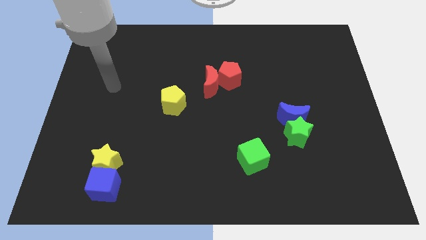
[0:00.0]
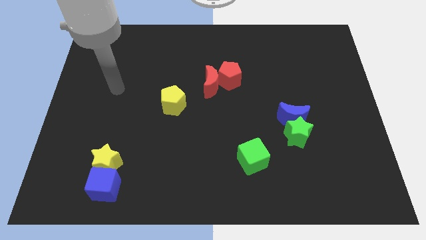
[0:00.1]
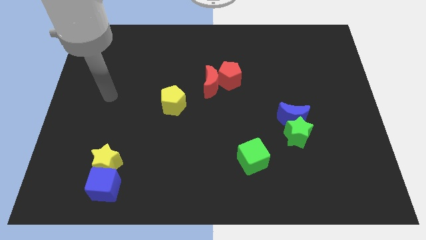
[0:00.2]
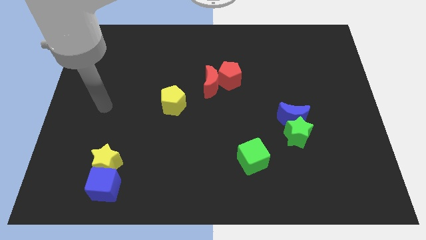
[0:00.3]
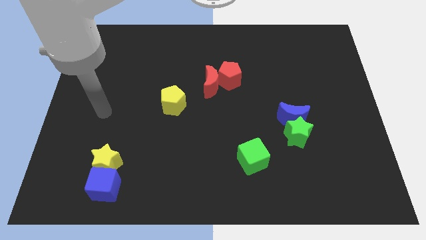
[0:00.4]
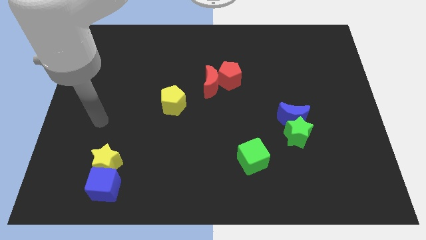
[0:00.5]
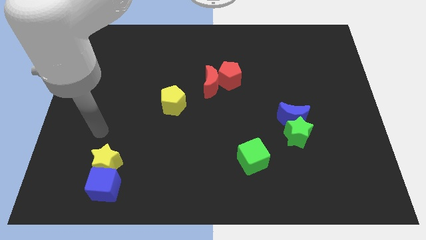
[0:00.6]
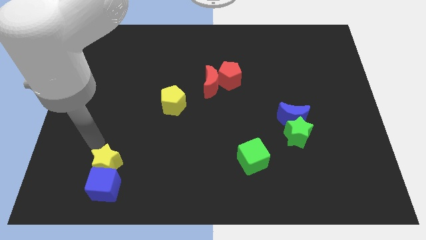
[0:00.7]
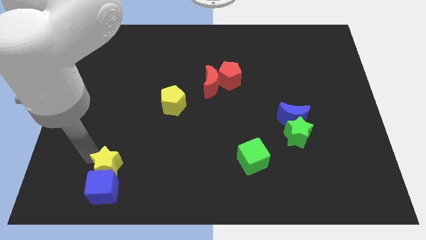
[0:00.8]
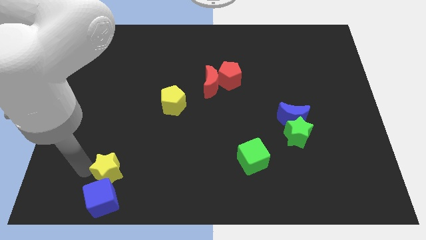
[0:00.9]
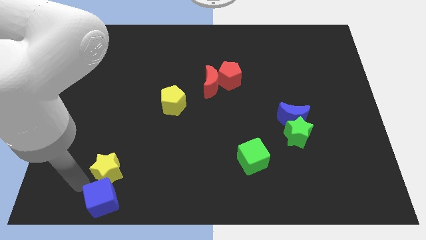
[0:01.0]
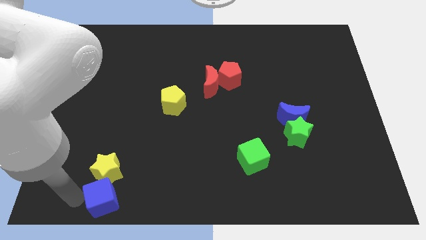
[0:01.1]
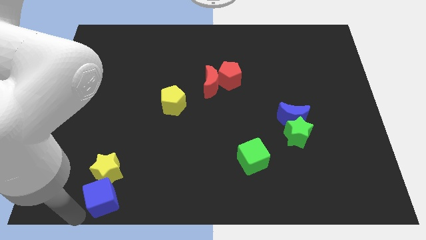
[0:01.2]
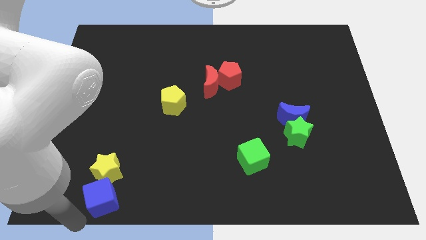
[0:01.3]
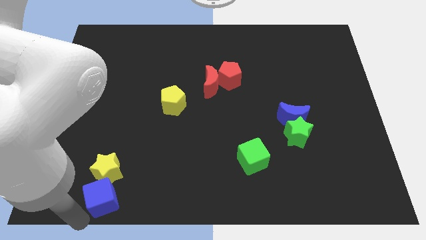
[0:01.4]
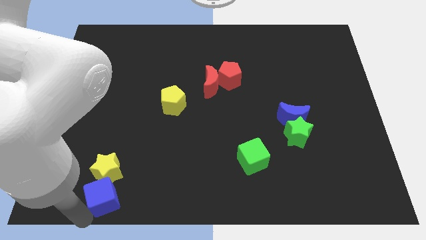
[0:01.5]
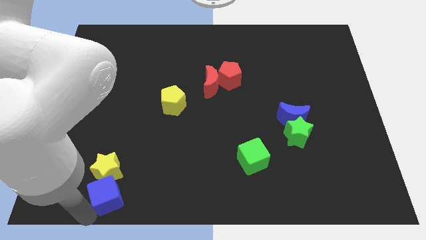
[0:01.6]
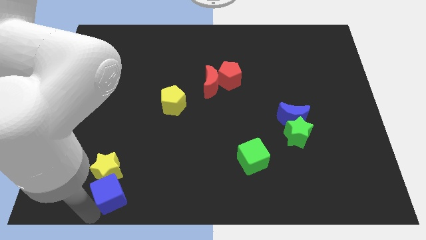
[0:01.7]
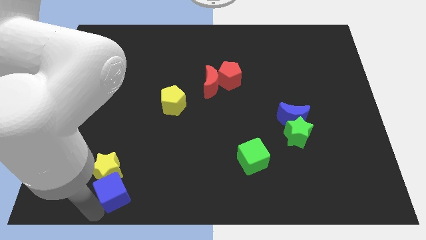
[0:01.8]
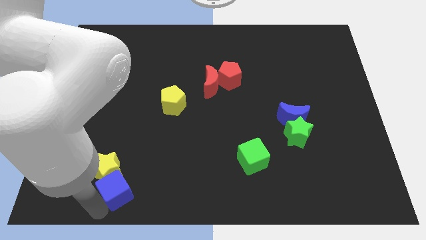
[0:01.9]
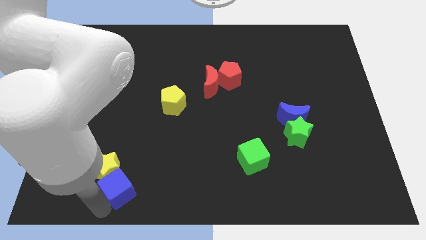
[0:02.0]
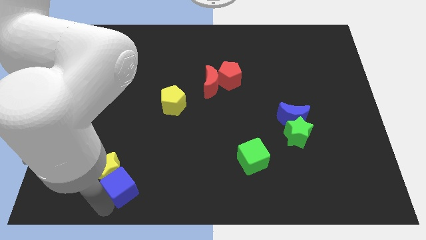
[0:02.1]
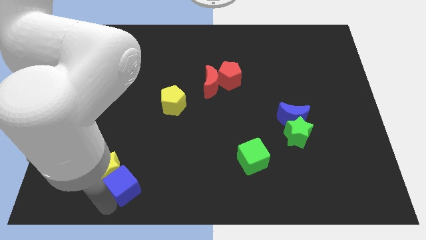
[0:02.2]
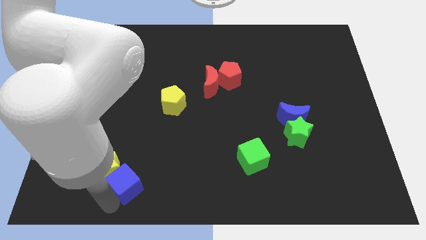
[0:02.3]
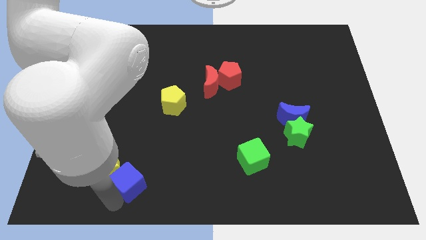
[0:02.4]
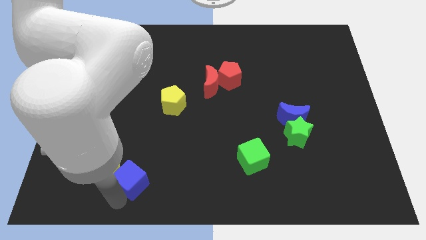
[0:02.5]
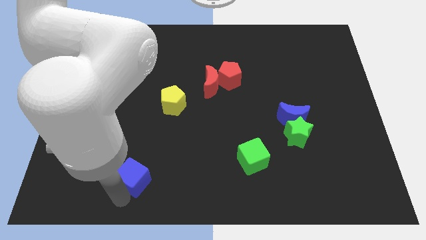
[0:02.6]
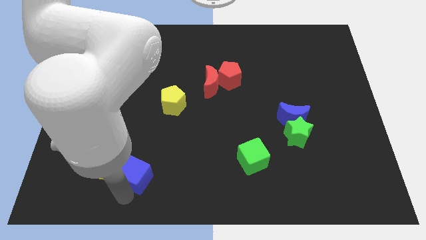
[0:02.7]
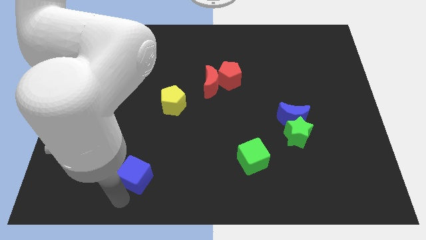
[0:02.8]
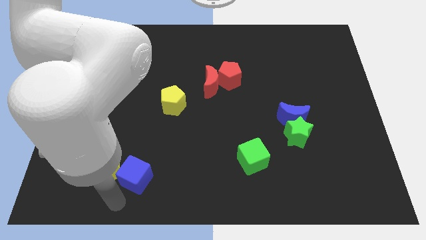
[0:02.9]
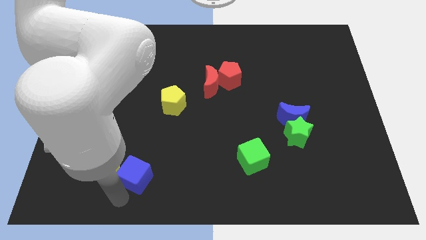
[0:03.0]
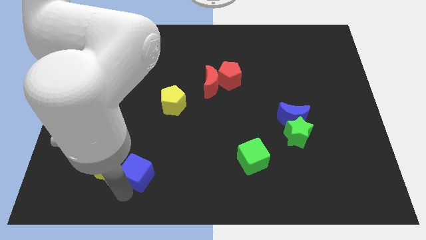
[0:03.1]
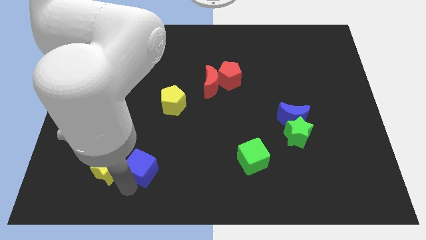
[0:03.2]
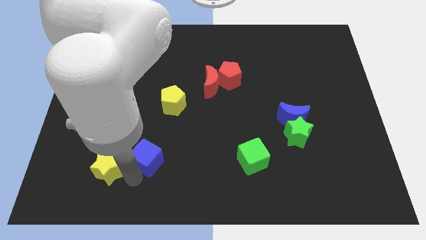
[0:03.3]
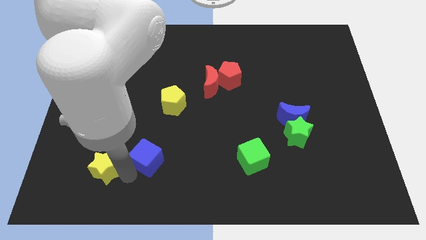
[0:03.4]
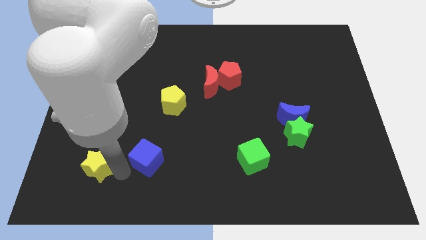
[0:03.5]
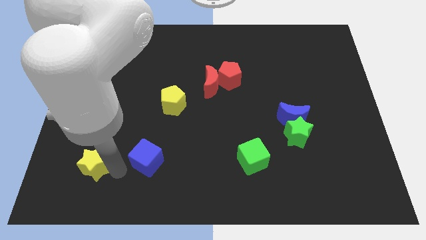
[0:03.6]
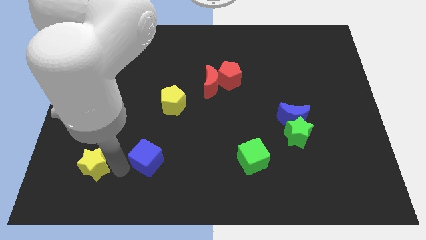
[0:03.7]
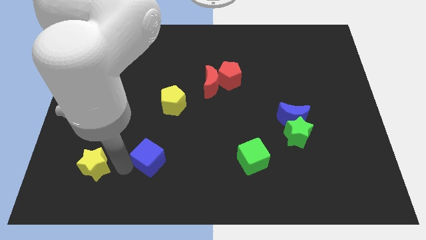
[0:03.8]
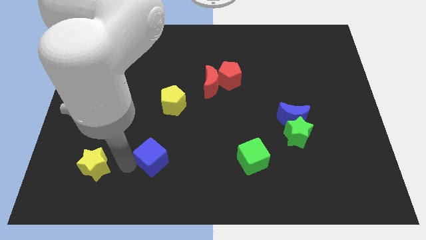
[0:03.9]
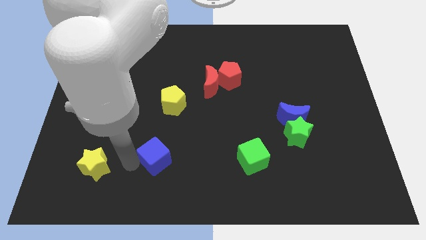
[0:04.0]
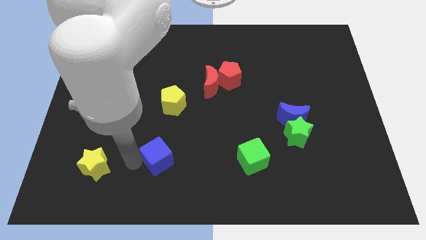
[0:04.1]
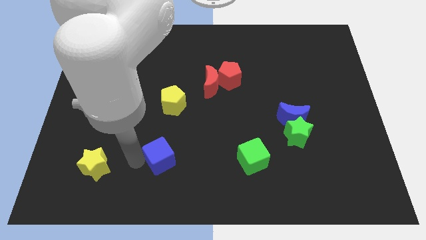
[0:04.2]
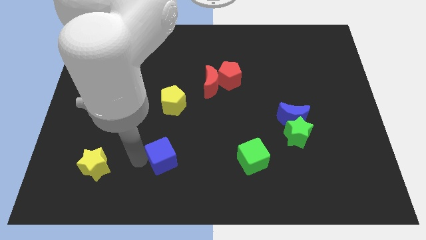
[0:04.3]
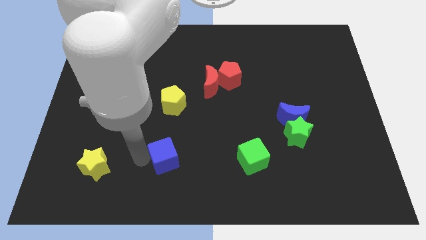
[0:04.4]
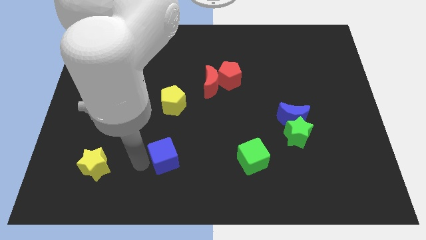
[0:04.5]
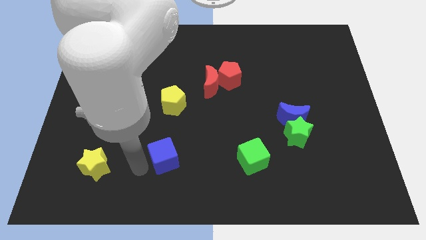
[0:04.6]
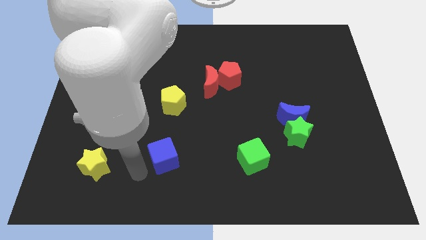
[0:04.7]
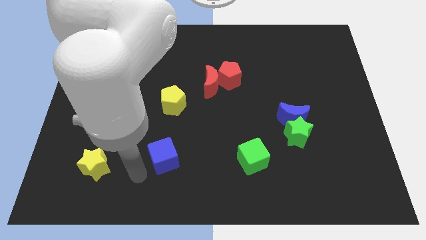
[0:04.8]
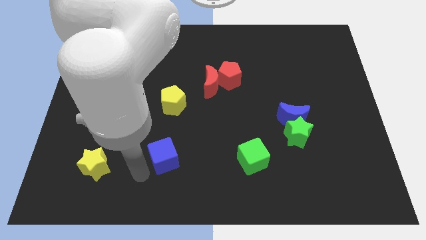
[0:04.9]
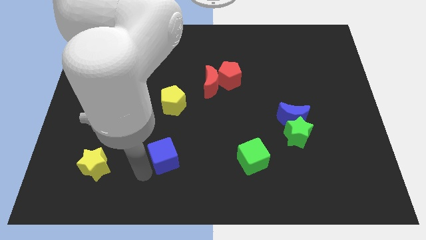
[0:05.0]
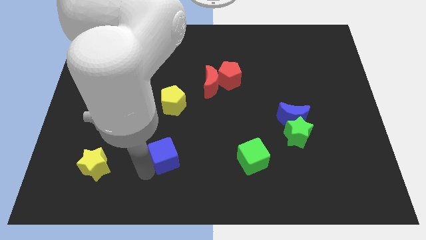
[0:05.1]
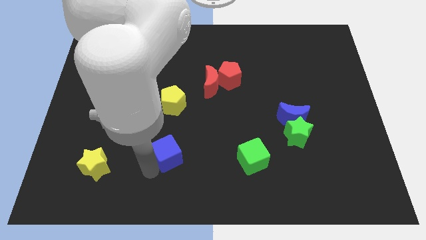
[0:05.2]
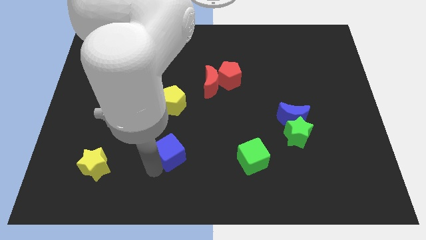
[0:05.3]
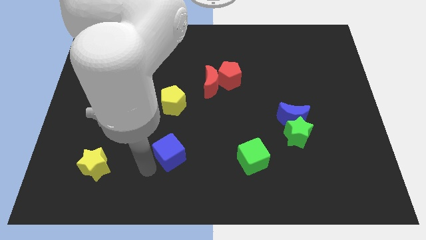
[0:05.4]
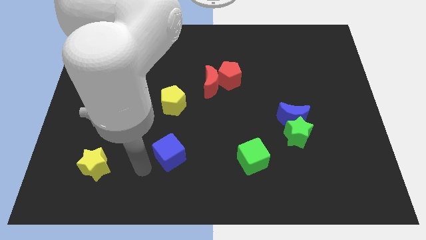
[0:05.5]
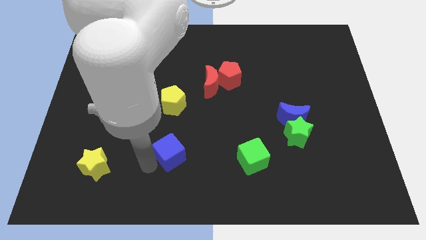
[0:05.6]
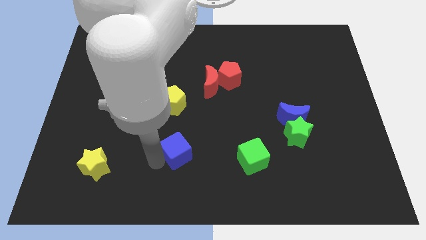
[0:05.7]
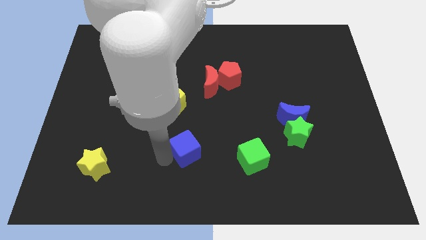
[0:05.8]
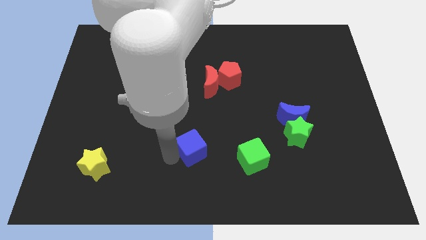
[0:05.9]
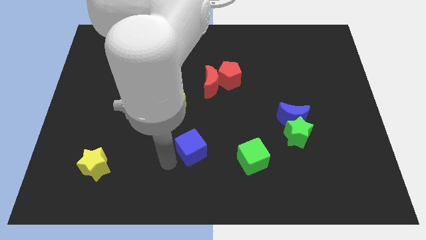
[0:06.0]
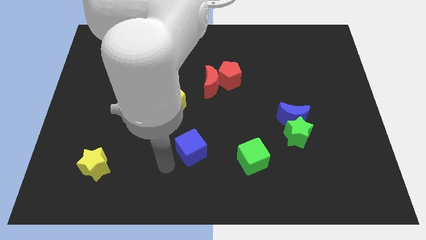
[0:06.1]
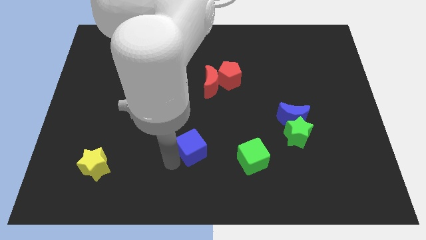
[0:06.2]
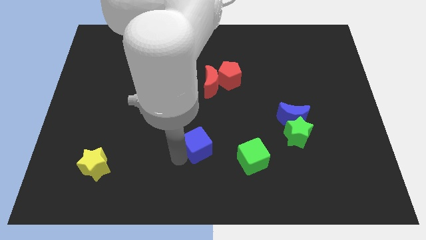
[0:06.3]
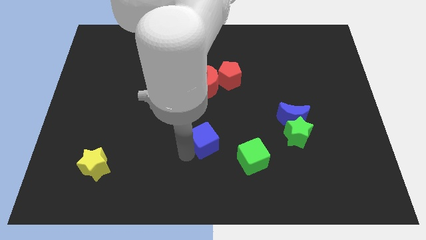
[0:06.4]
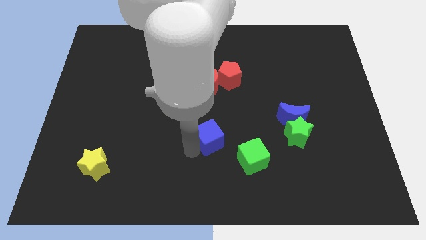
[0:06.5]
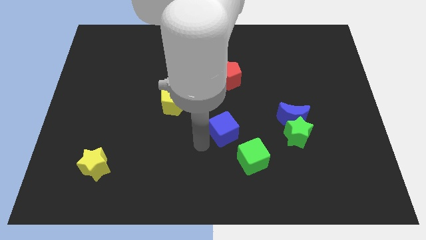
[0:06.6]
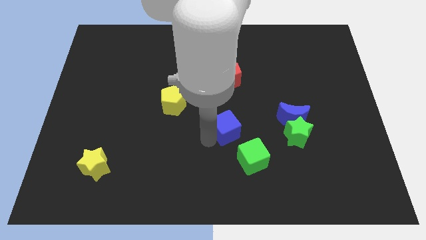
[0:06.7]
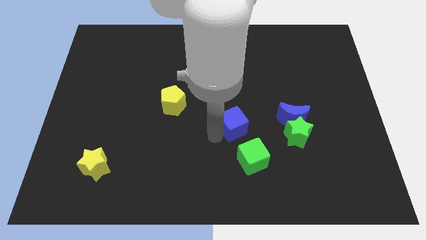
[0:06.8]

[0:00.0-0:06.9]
put the blue cube to the top of the green cube
